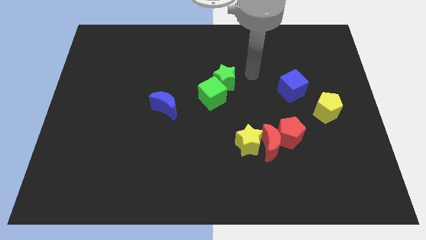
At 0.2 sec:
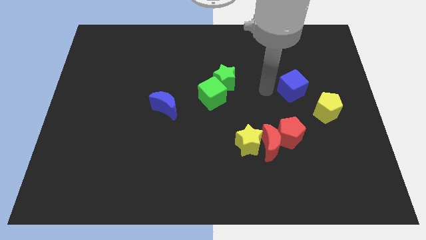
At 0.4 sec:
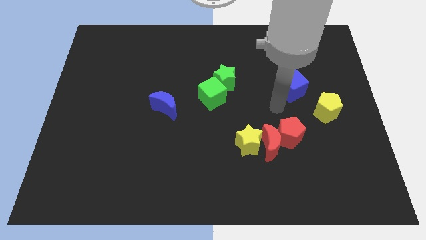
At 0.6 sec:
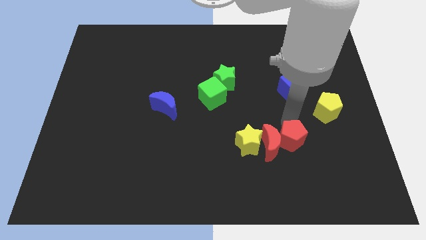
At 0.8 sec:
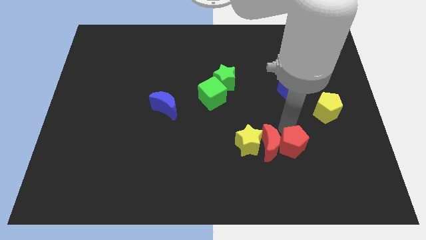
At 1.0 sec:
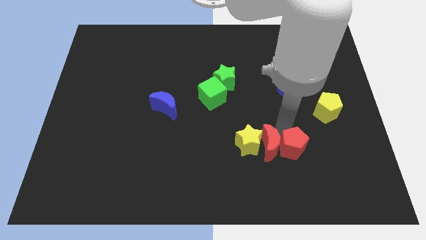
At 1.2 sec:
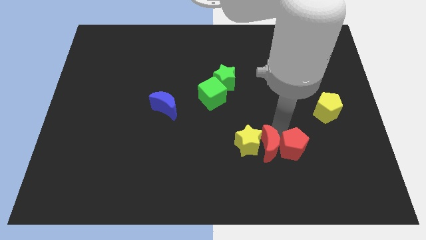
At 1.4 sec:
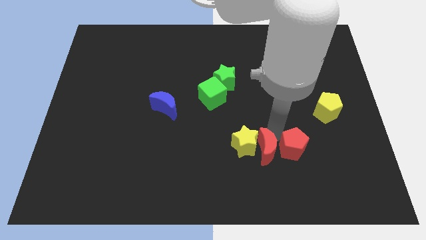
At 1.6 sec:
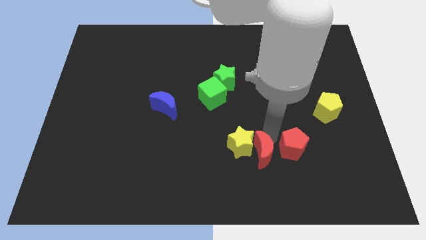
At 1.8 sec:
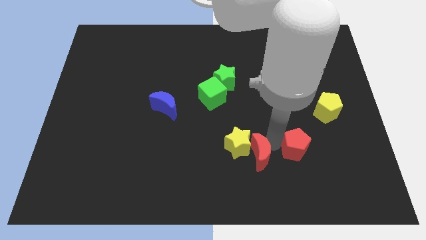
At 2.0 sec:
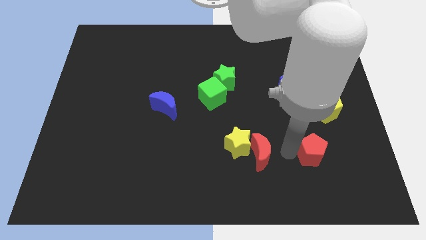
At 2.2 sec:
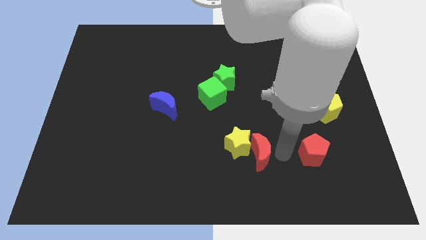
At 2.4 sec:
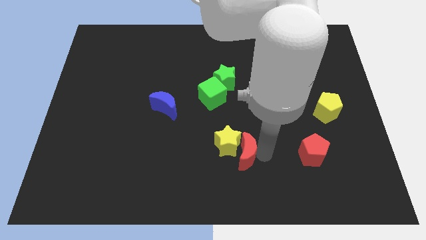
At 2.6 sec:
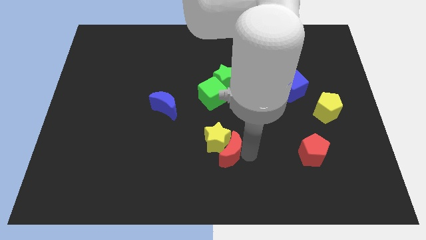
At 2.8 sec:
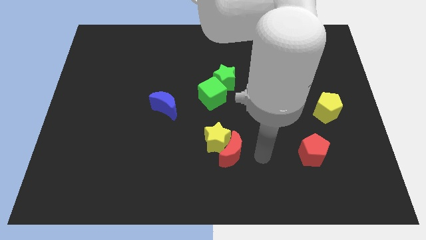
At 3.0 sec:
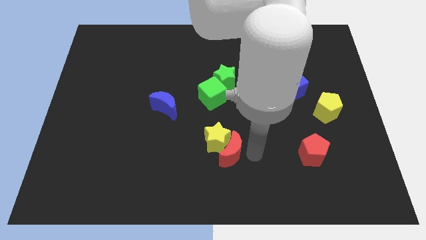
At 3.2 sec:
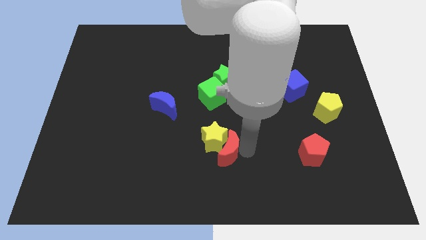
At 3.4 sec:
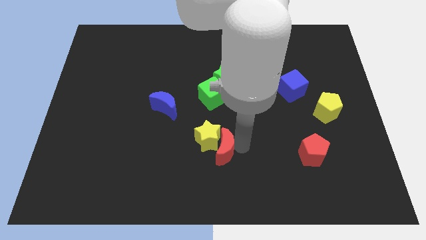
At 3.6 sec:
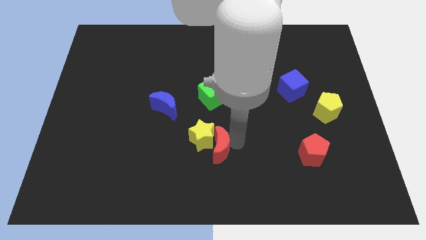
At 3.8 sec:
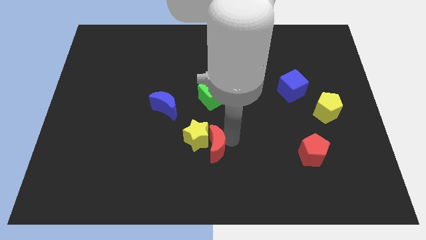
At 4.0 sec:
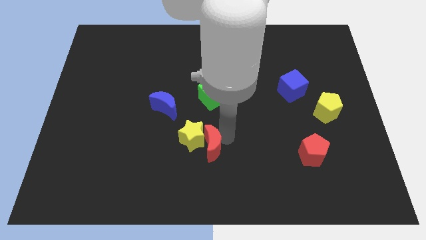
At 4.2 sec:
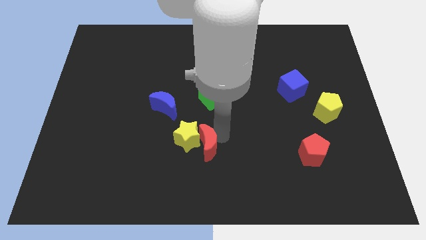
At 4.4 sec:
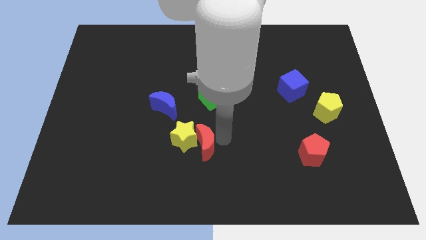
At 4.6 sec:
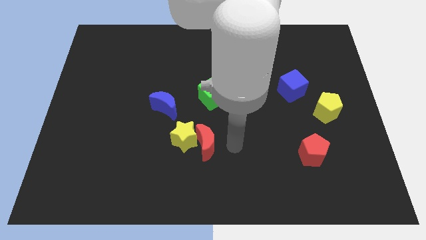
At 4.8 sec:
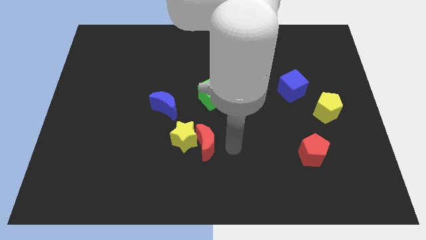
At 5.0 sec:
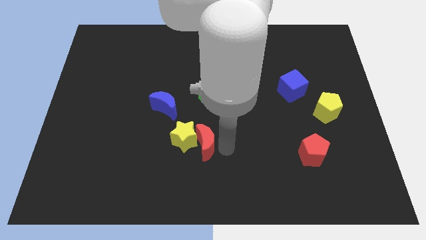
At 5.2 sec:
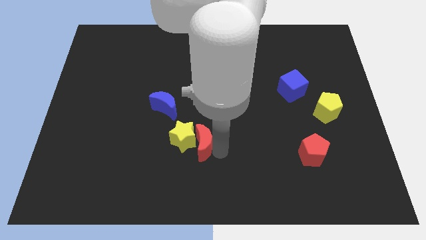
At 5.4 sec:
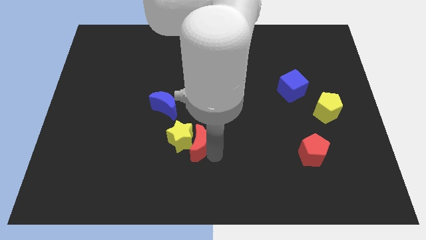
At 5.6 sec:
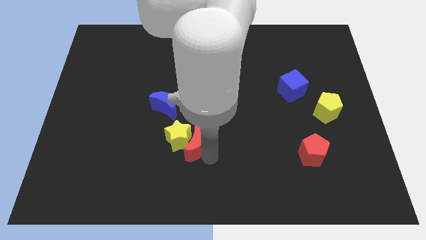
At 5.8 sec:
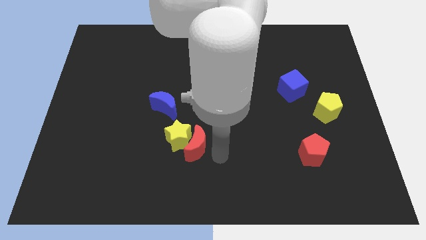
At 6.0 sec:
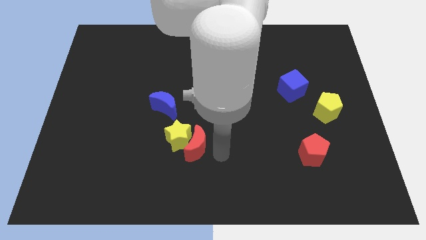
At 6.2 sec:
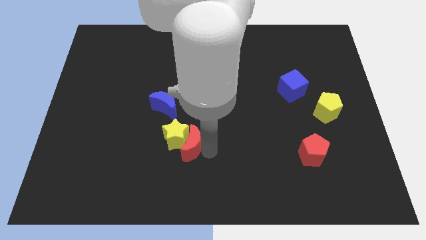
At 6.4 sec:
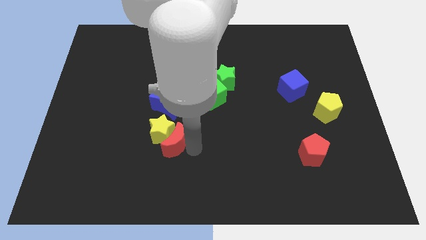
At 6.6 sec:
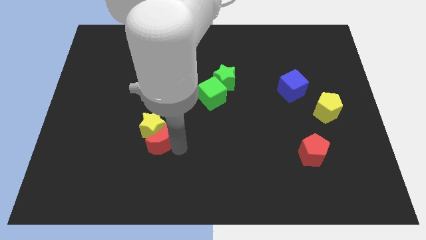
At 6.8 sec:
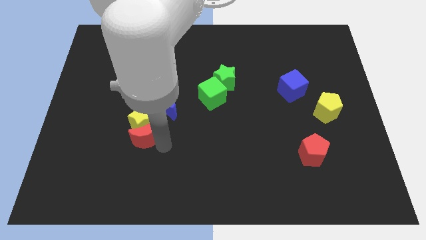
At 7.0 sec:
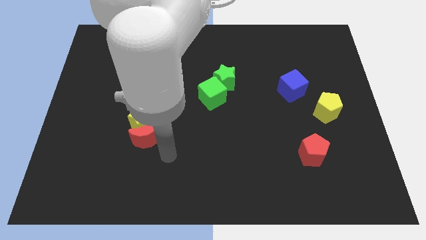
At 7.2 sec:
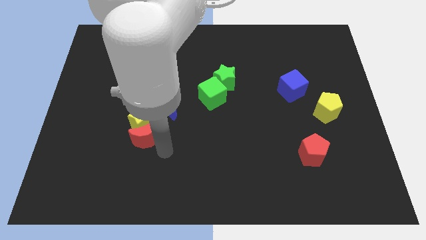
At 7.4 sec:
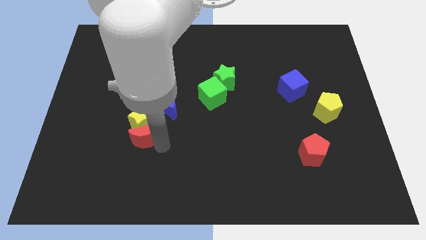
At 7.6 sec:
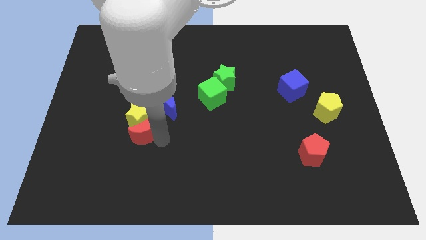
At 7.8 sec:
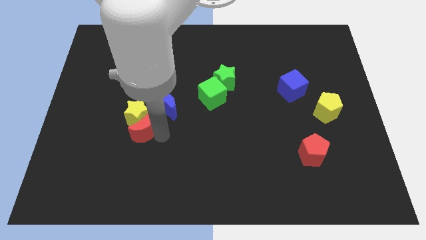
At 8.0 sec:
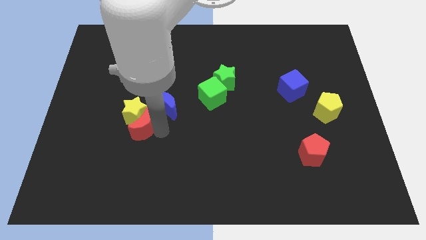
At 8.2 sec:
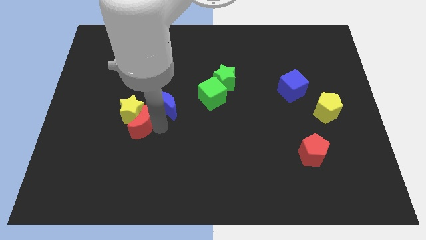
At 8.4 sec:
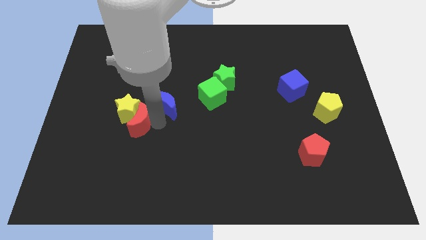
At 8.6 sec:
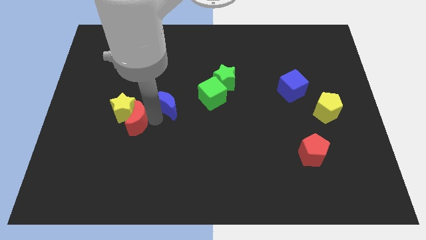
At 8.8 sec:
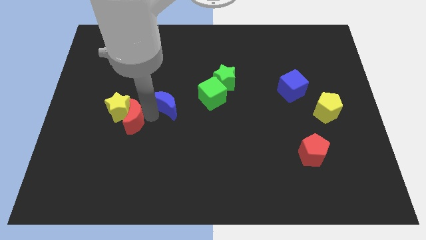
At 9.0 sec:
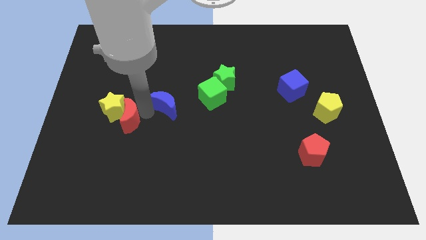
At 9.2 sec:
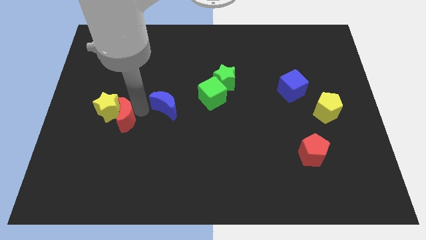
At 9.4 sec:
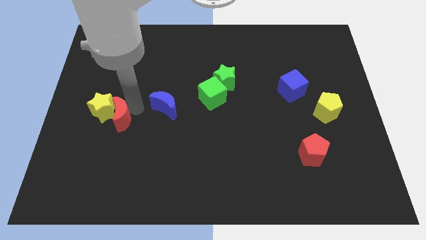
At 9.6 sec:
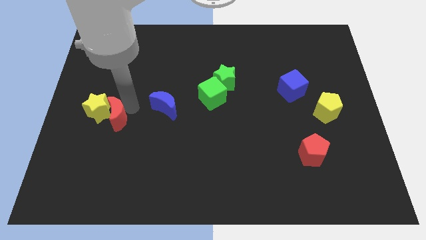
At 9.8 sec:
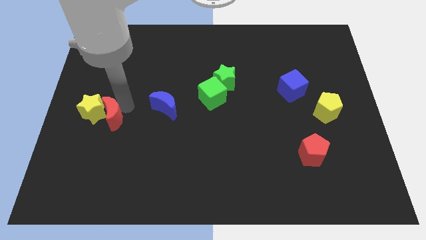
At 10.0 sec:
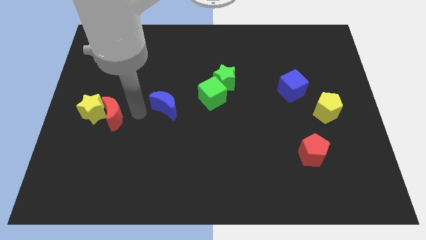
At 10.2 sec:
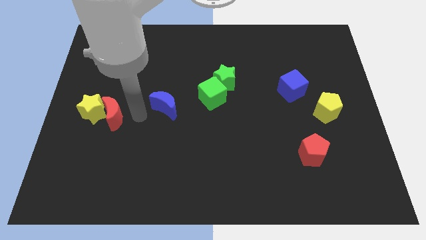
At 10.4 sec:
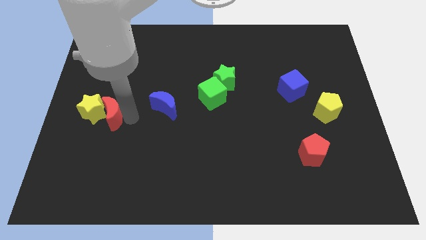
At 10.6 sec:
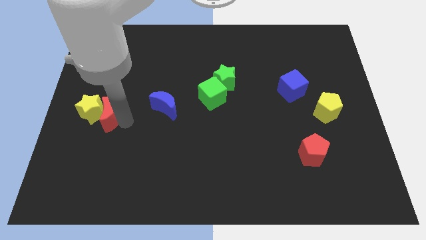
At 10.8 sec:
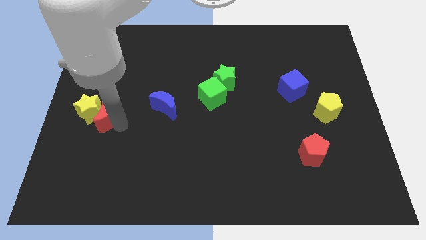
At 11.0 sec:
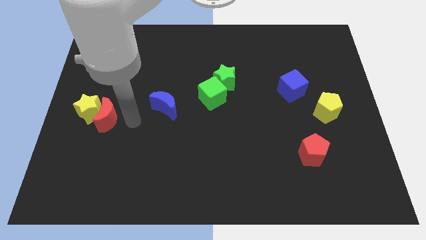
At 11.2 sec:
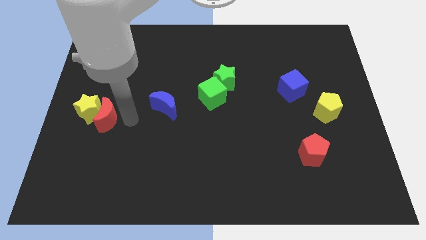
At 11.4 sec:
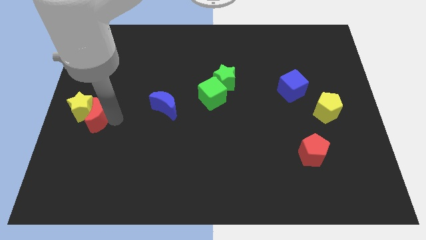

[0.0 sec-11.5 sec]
put the red moon to the center left

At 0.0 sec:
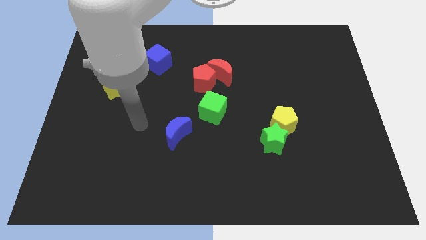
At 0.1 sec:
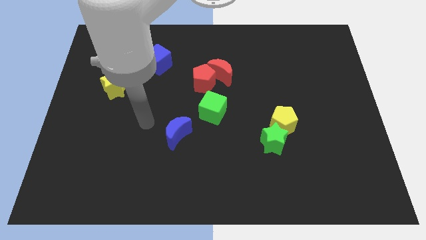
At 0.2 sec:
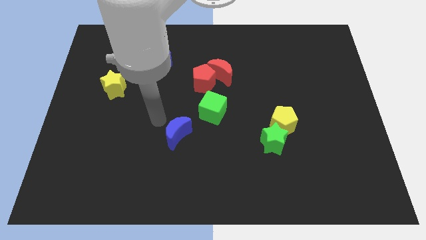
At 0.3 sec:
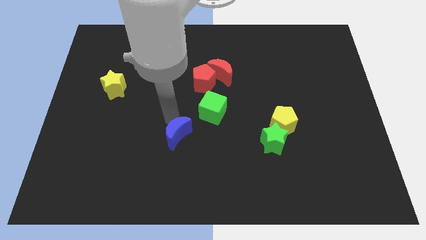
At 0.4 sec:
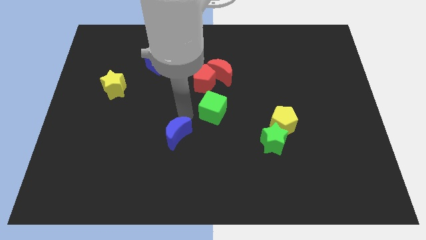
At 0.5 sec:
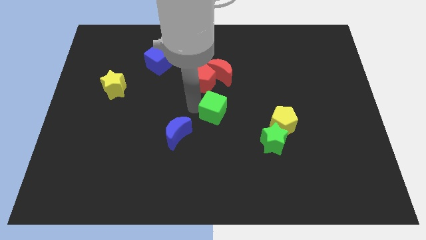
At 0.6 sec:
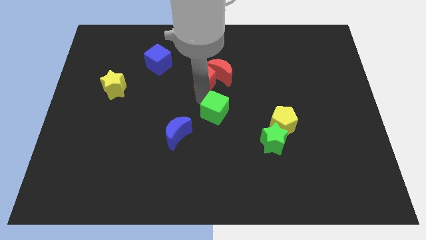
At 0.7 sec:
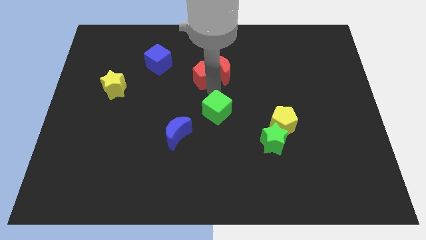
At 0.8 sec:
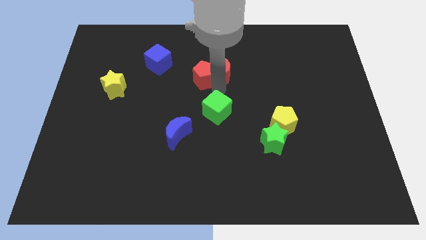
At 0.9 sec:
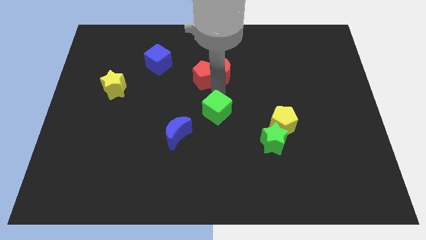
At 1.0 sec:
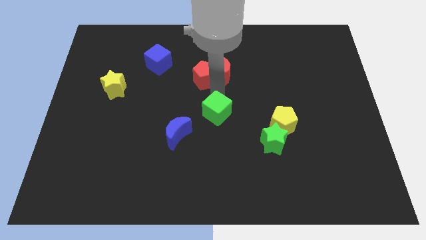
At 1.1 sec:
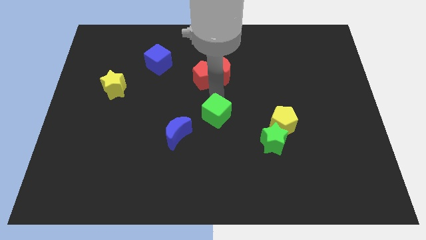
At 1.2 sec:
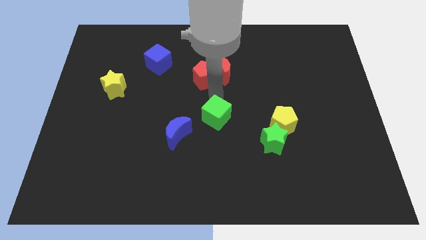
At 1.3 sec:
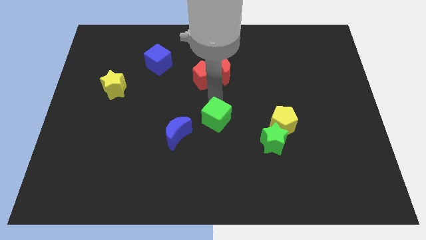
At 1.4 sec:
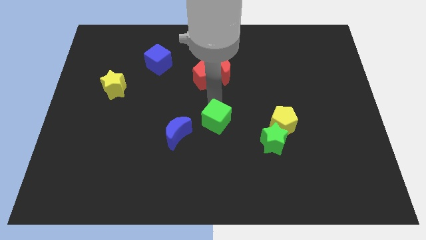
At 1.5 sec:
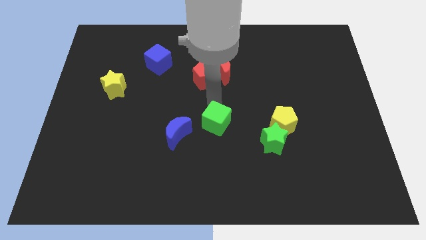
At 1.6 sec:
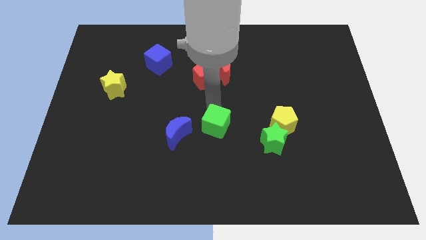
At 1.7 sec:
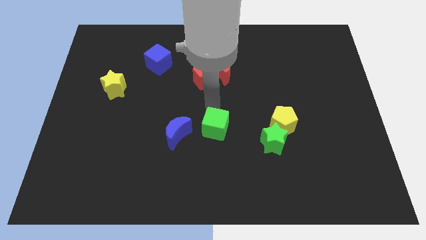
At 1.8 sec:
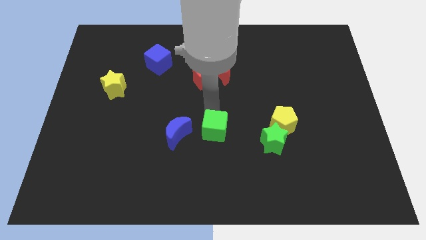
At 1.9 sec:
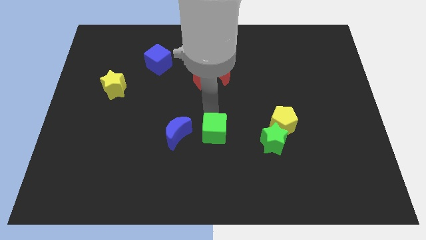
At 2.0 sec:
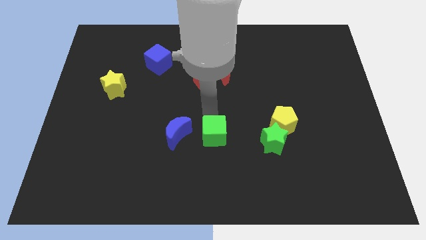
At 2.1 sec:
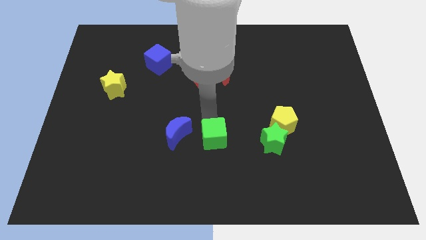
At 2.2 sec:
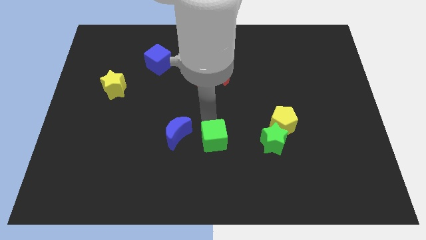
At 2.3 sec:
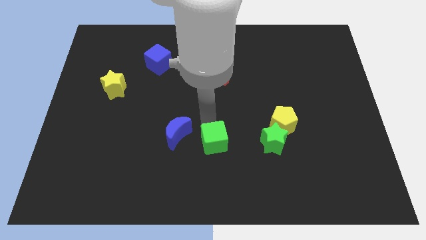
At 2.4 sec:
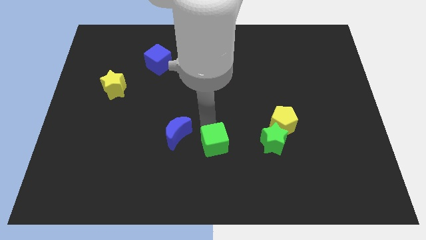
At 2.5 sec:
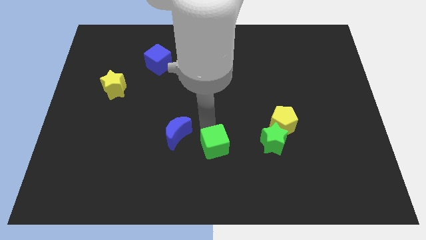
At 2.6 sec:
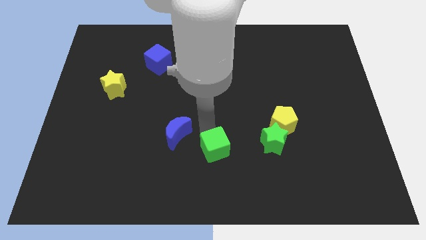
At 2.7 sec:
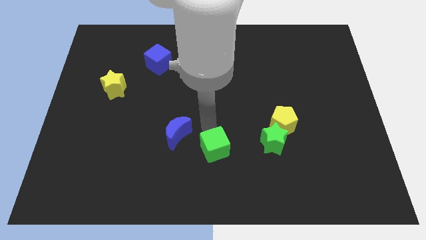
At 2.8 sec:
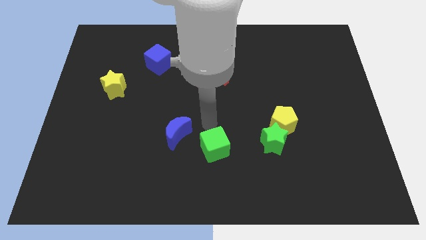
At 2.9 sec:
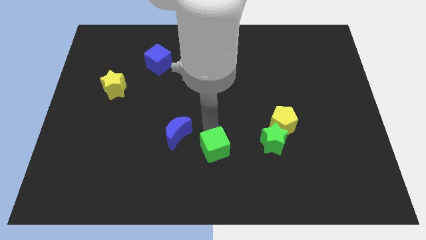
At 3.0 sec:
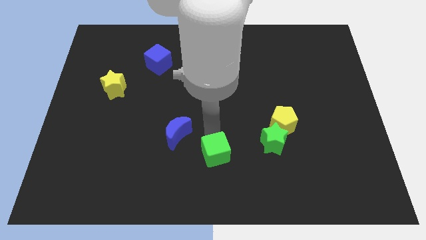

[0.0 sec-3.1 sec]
move the green cube to the bottom
